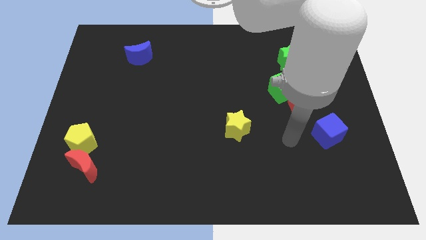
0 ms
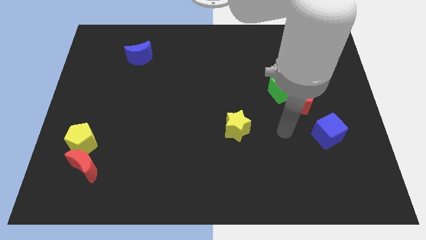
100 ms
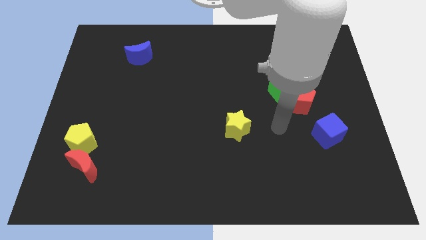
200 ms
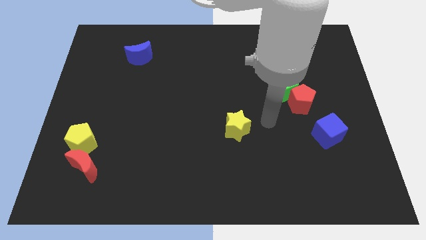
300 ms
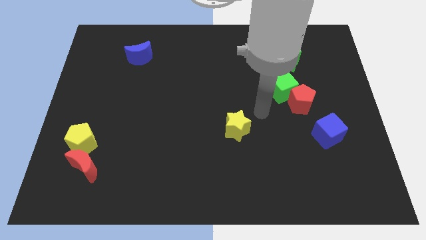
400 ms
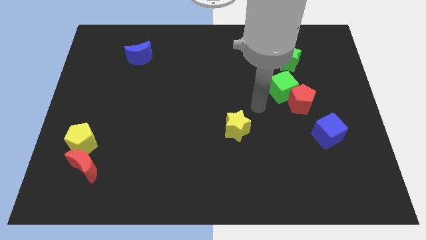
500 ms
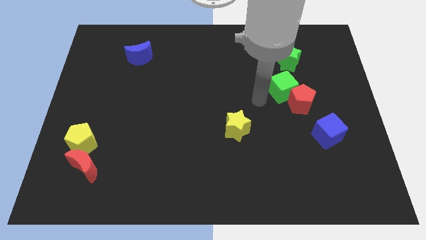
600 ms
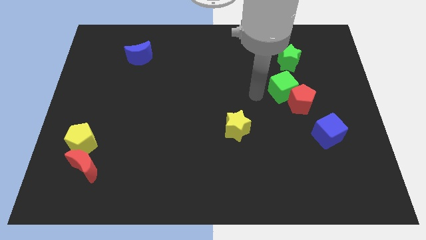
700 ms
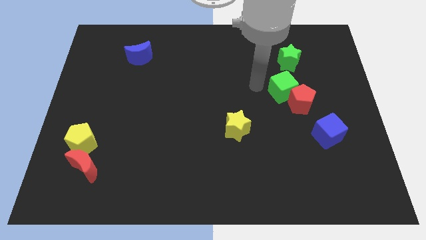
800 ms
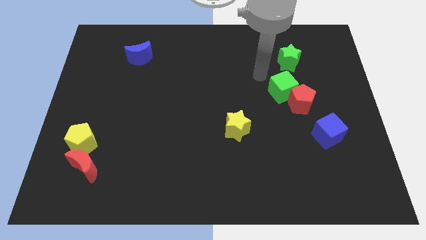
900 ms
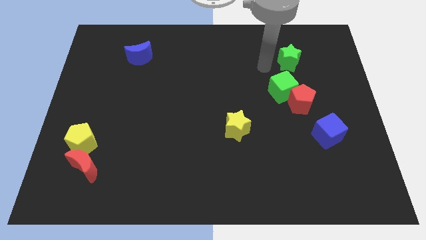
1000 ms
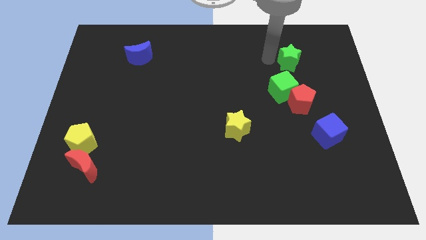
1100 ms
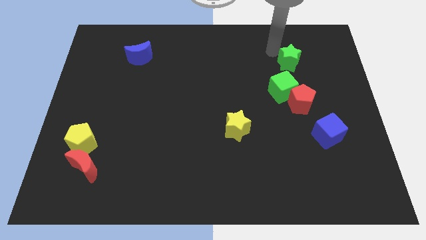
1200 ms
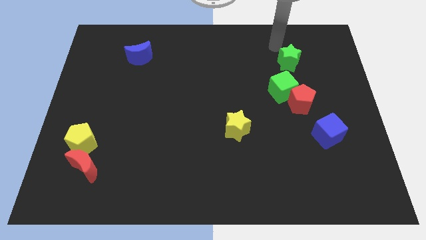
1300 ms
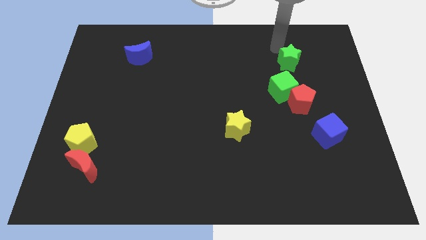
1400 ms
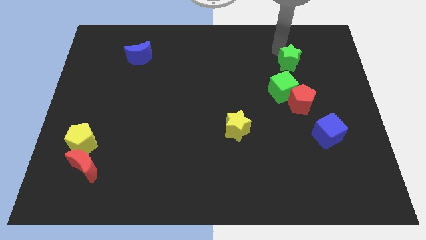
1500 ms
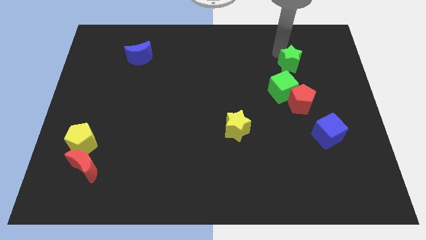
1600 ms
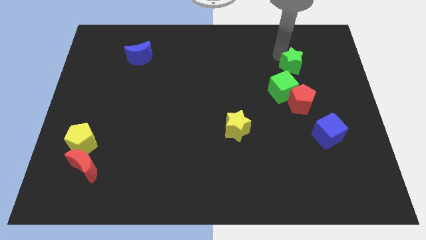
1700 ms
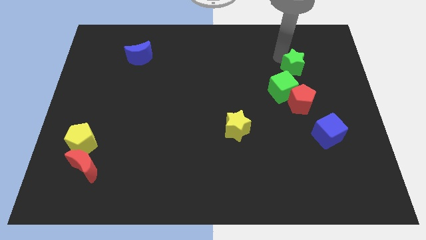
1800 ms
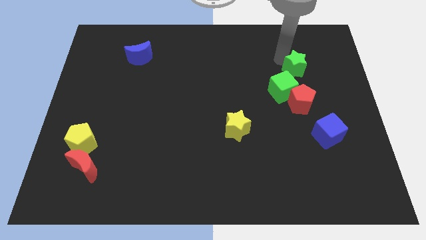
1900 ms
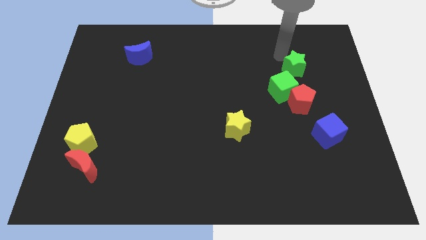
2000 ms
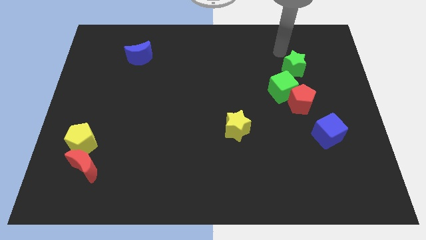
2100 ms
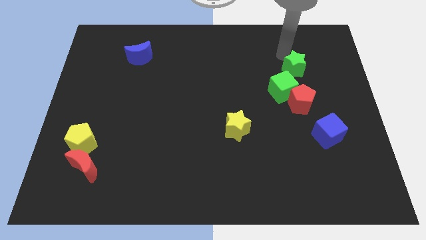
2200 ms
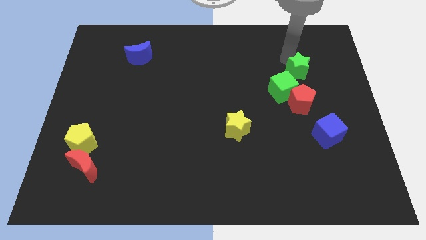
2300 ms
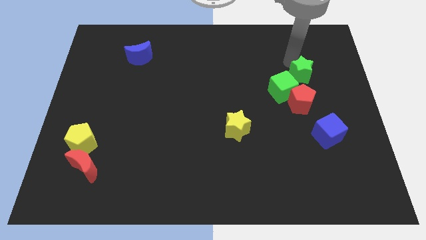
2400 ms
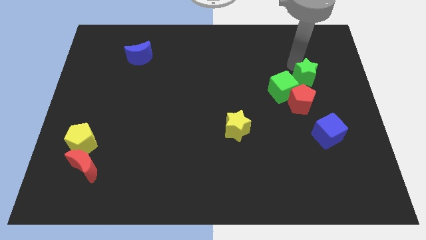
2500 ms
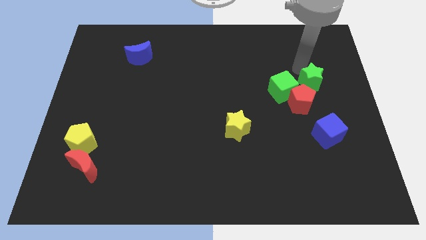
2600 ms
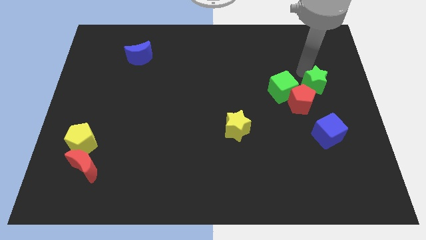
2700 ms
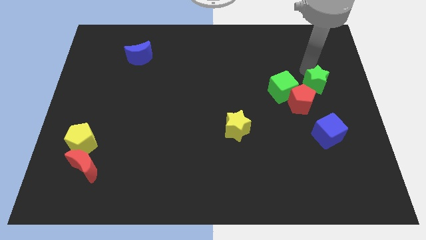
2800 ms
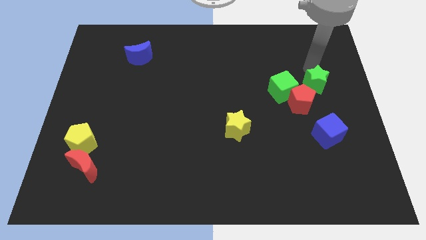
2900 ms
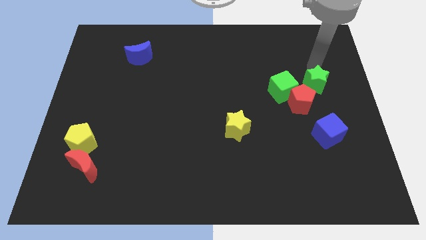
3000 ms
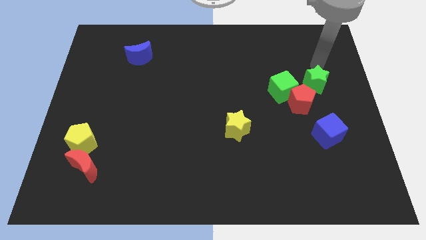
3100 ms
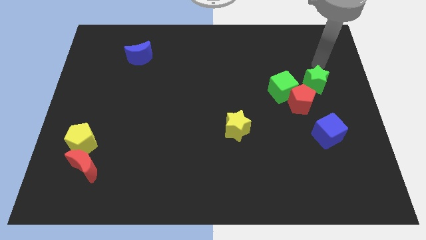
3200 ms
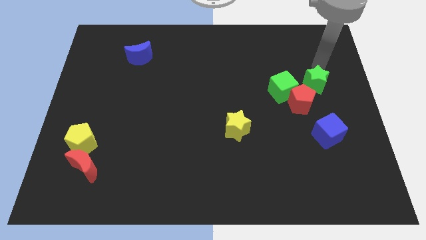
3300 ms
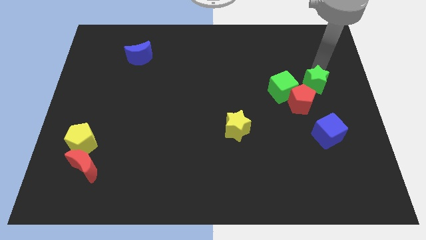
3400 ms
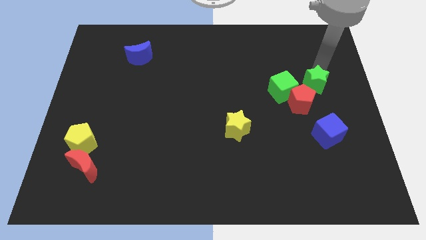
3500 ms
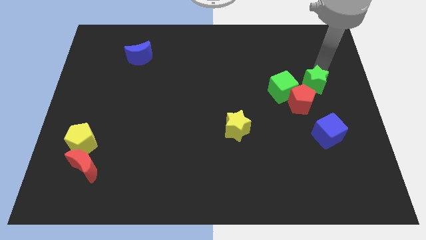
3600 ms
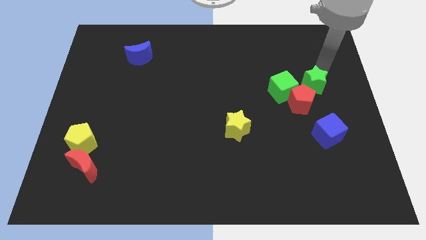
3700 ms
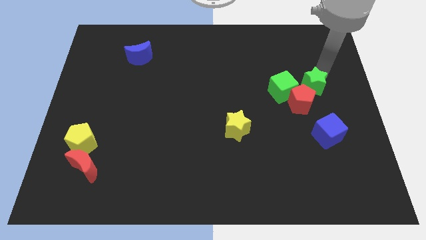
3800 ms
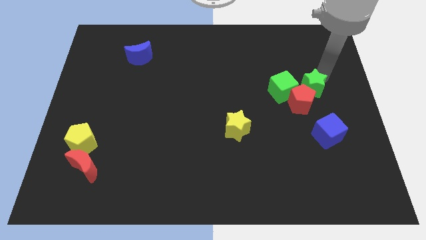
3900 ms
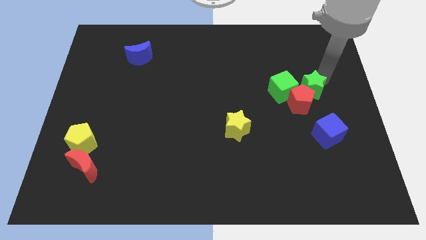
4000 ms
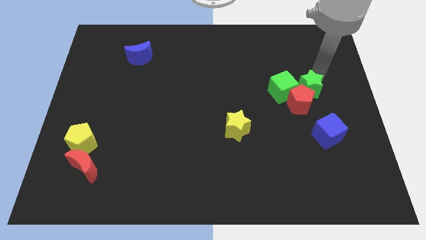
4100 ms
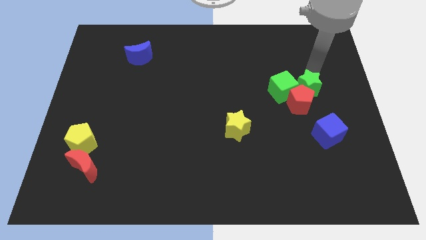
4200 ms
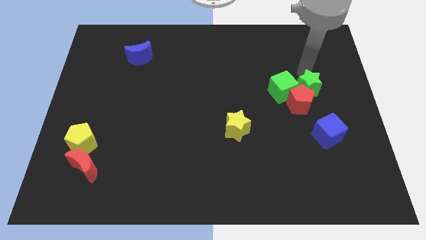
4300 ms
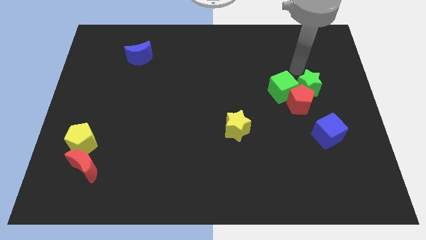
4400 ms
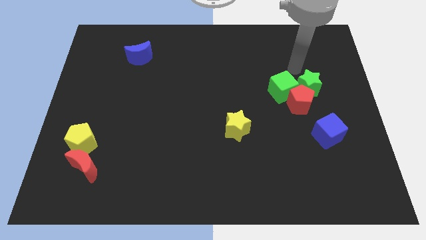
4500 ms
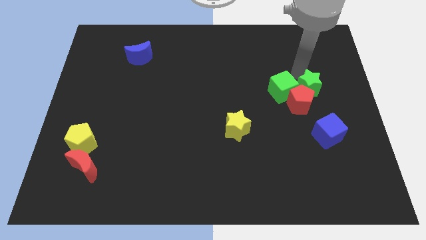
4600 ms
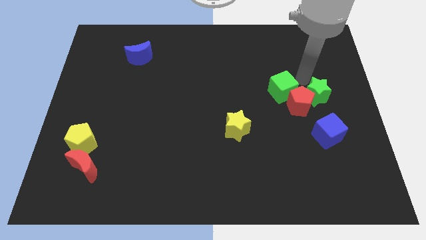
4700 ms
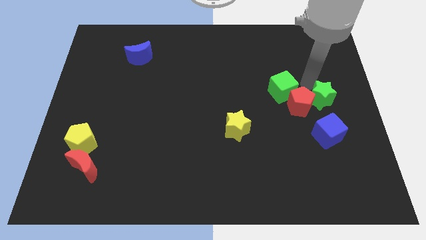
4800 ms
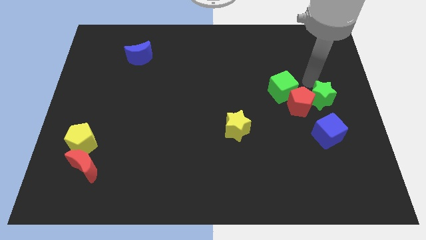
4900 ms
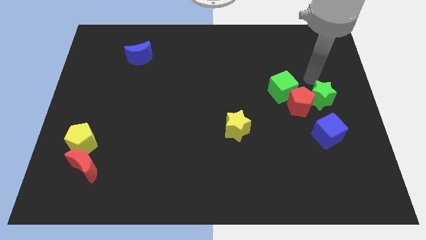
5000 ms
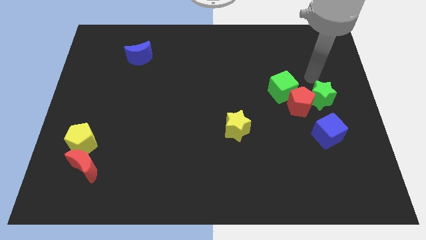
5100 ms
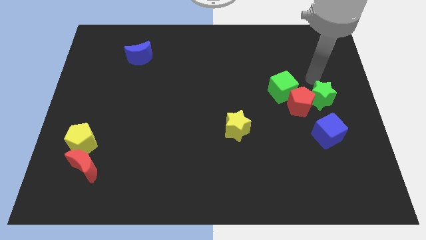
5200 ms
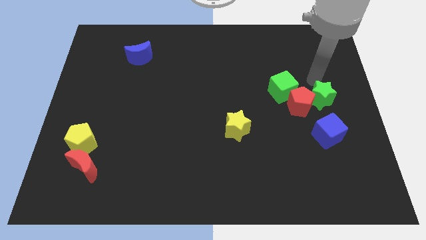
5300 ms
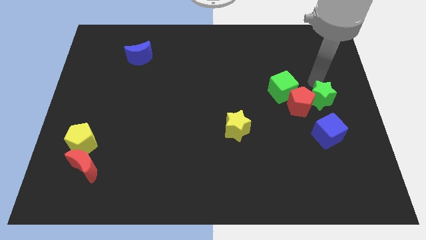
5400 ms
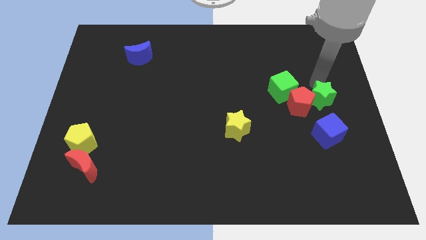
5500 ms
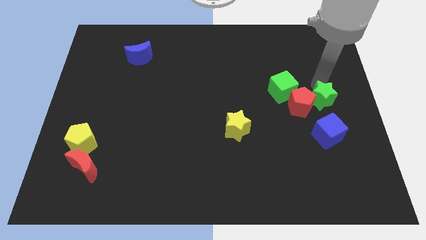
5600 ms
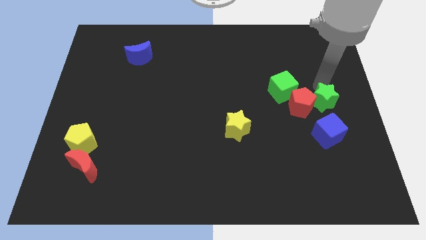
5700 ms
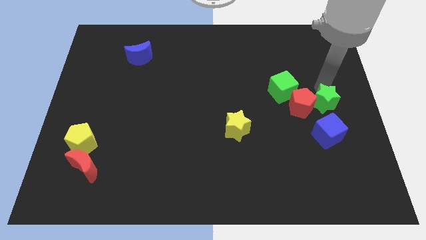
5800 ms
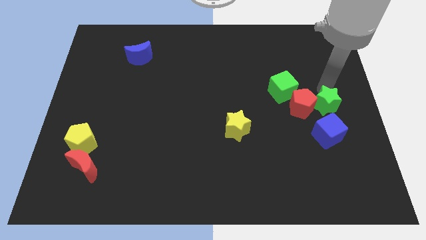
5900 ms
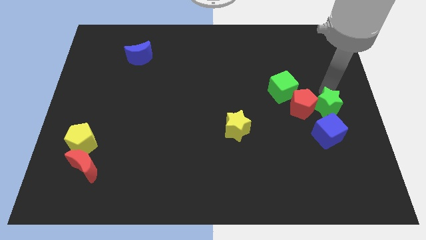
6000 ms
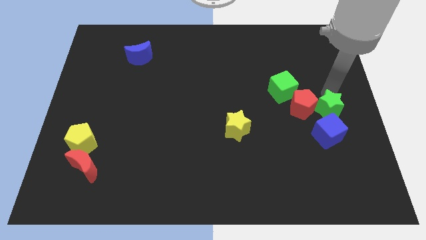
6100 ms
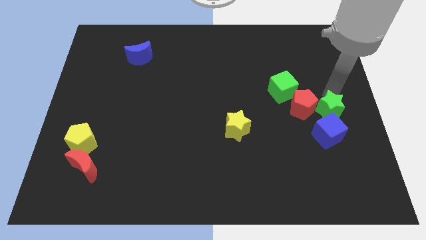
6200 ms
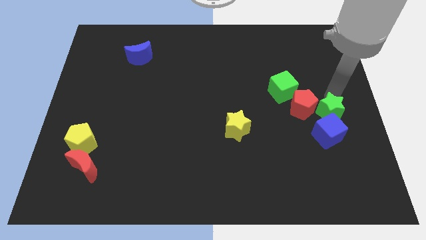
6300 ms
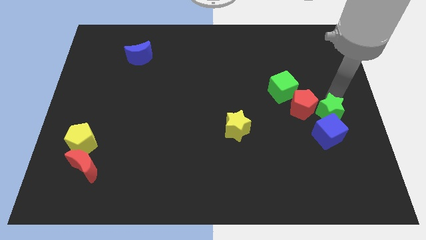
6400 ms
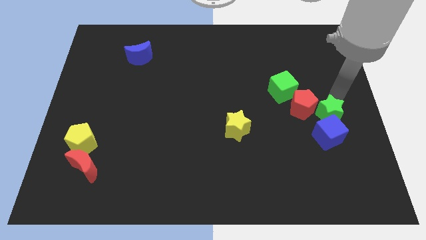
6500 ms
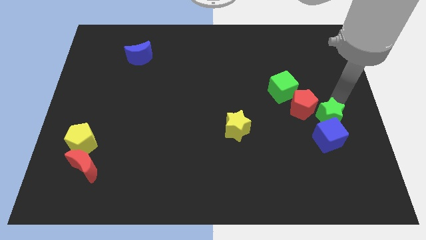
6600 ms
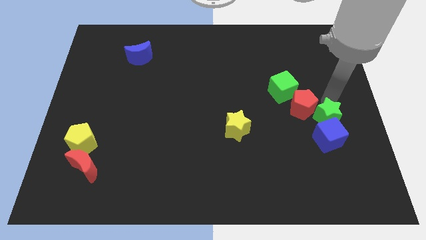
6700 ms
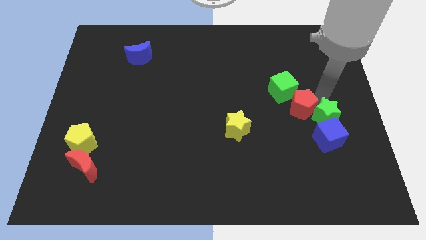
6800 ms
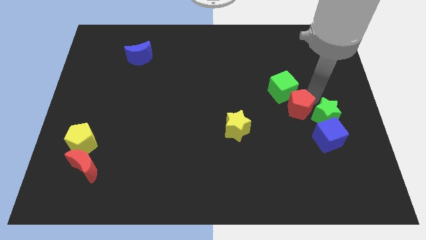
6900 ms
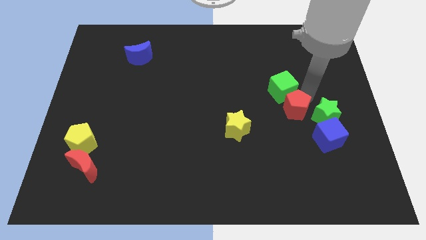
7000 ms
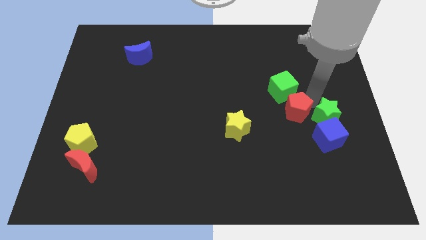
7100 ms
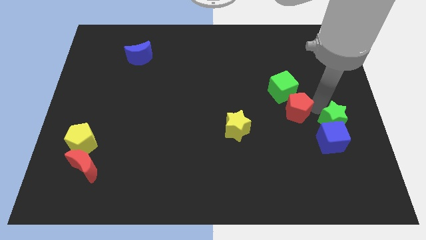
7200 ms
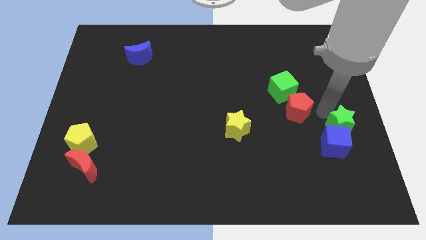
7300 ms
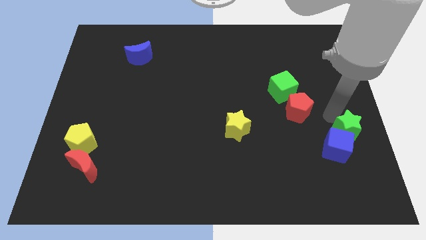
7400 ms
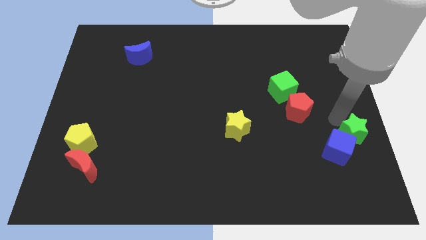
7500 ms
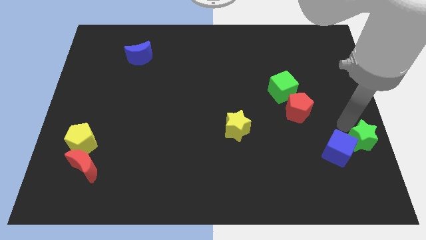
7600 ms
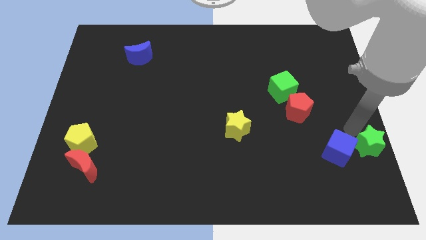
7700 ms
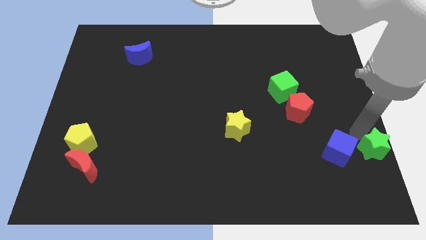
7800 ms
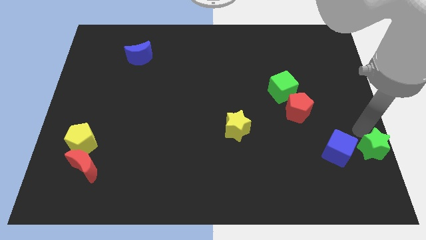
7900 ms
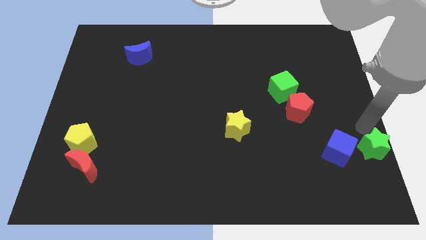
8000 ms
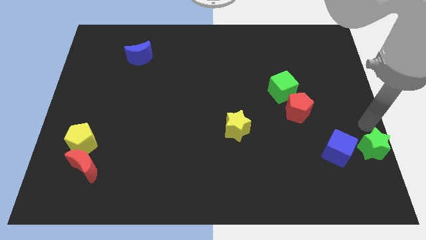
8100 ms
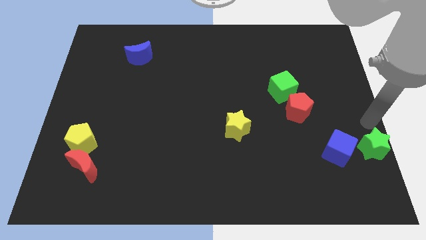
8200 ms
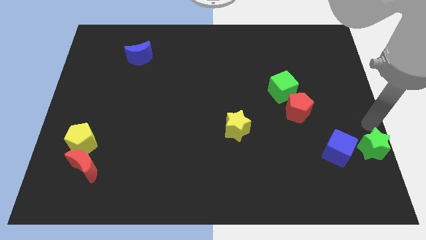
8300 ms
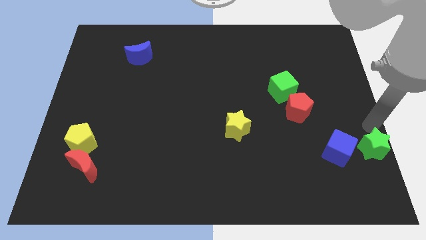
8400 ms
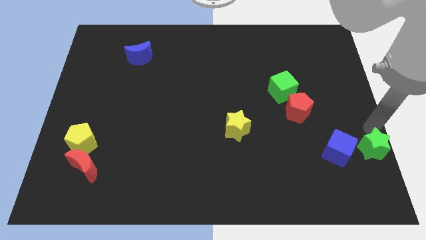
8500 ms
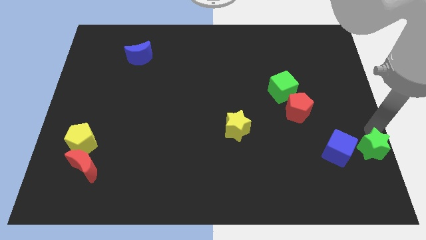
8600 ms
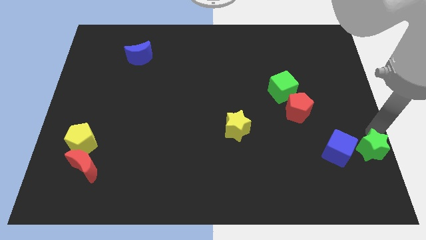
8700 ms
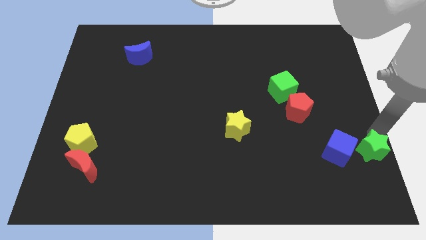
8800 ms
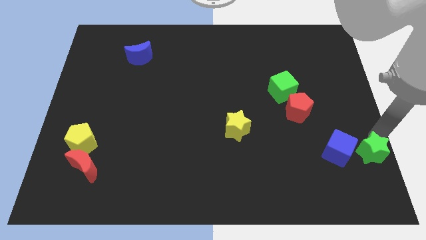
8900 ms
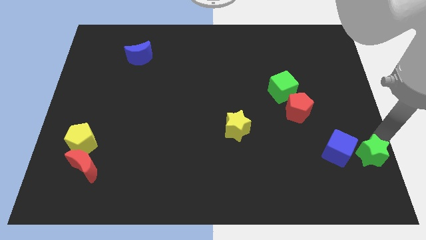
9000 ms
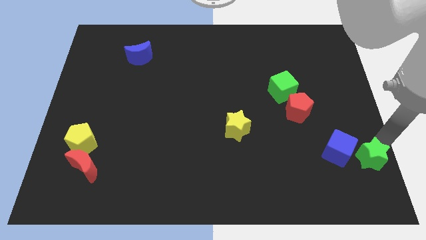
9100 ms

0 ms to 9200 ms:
move the green star to the bottom right corner
